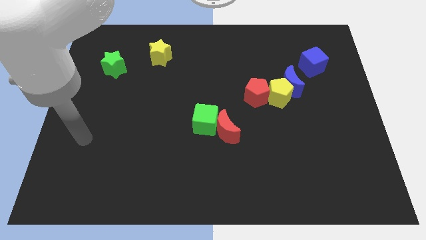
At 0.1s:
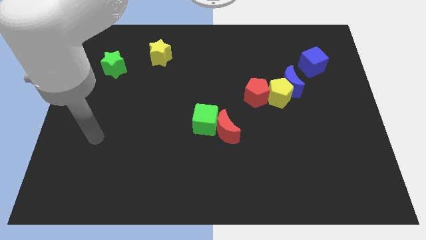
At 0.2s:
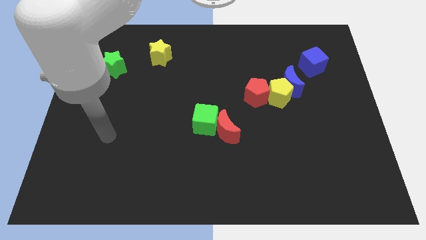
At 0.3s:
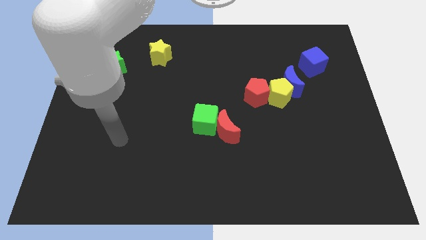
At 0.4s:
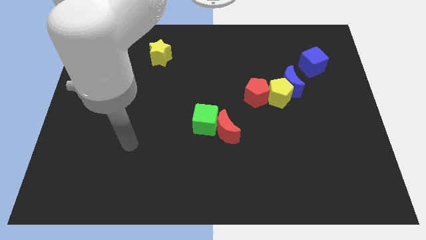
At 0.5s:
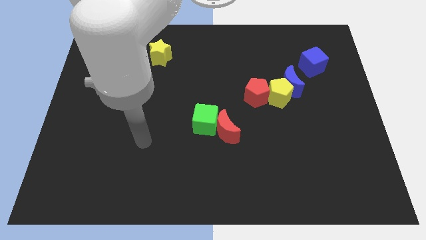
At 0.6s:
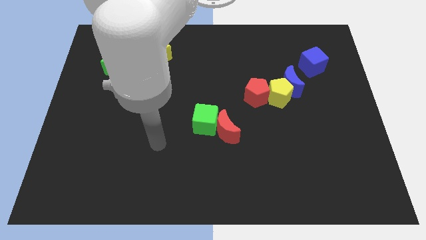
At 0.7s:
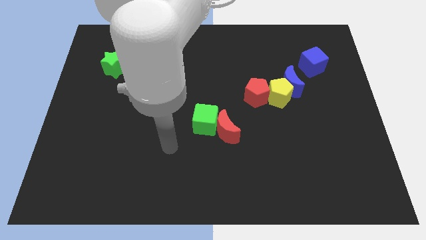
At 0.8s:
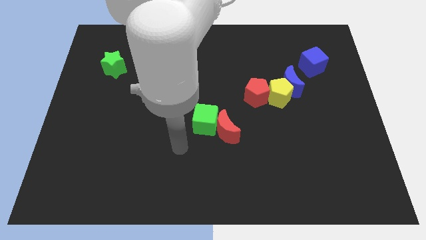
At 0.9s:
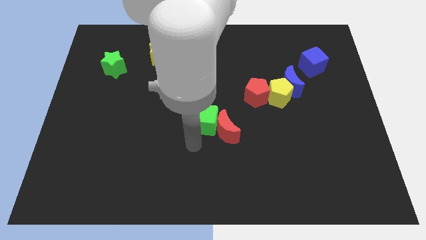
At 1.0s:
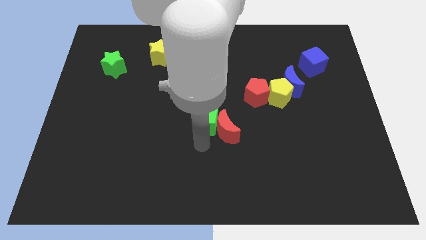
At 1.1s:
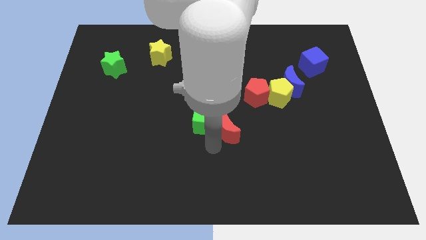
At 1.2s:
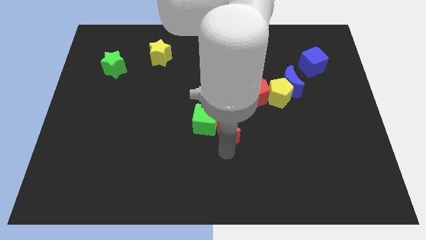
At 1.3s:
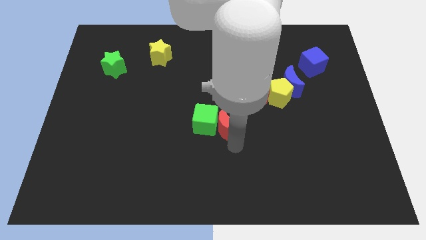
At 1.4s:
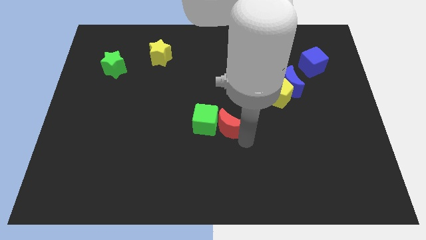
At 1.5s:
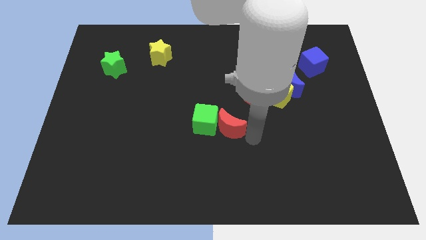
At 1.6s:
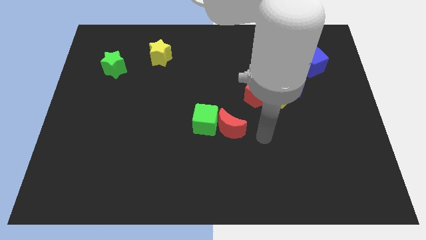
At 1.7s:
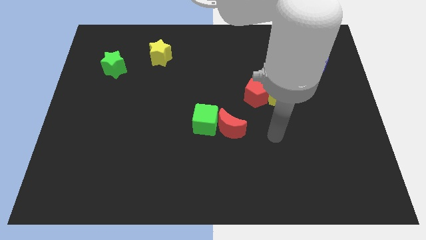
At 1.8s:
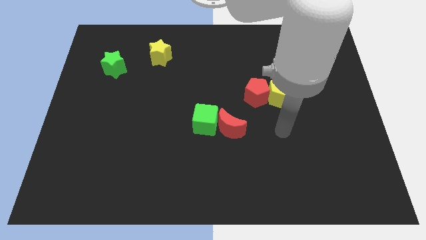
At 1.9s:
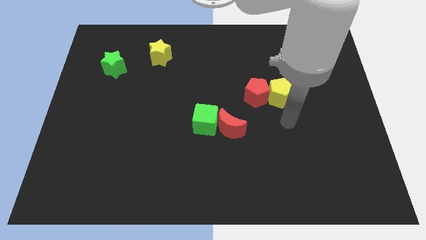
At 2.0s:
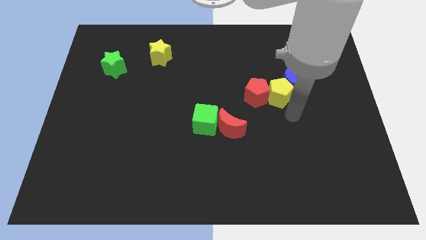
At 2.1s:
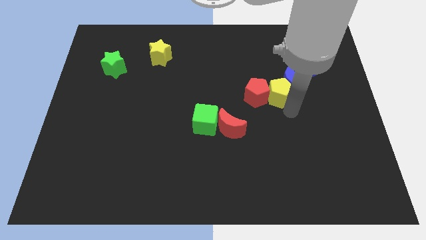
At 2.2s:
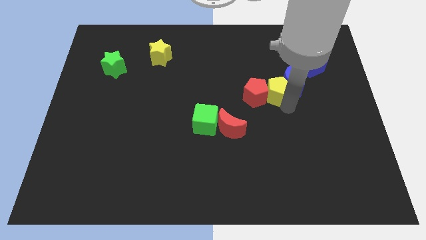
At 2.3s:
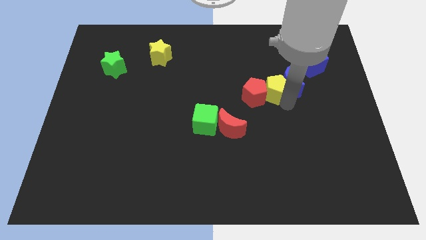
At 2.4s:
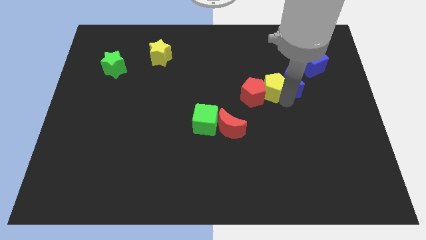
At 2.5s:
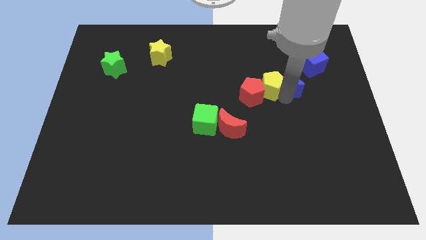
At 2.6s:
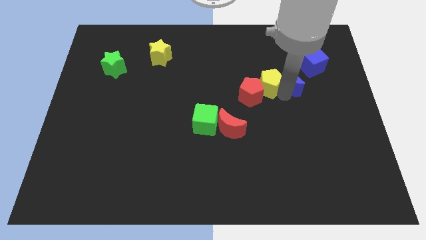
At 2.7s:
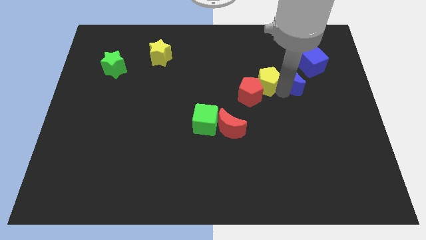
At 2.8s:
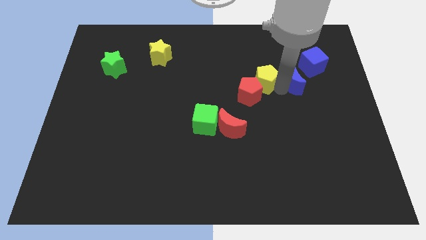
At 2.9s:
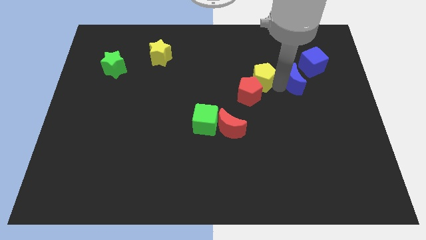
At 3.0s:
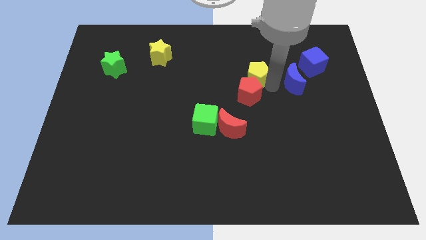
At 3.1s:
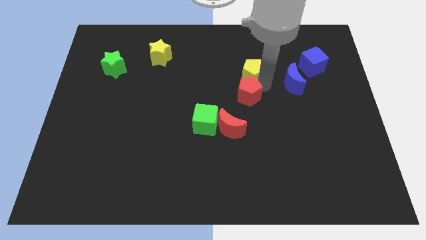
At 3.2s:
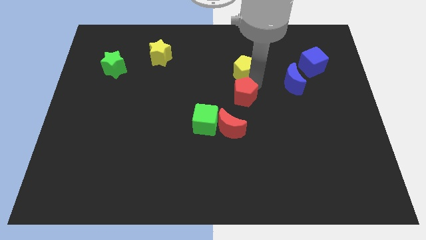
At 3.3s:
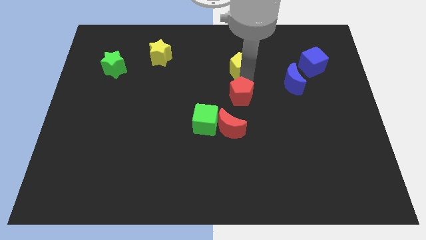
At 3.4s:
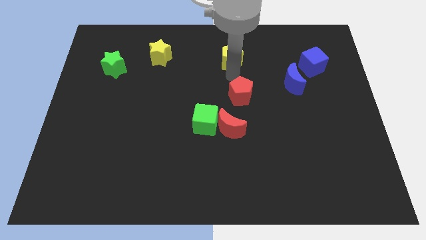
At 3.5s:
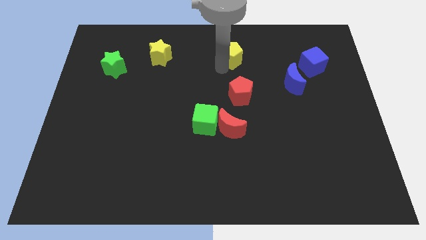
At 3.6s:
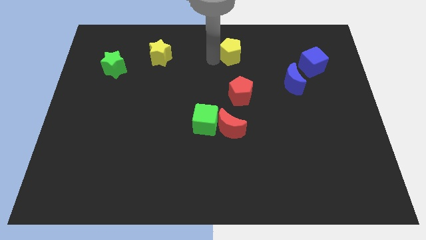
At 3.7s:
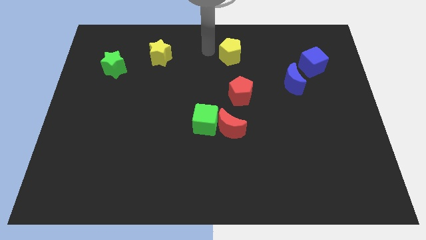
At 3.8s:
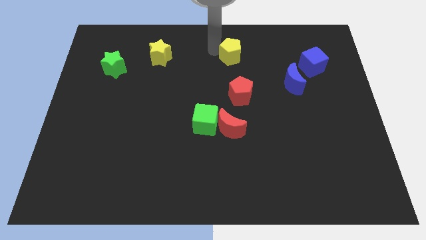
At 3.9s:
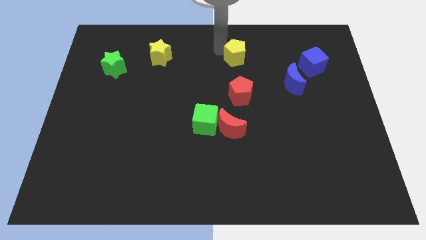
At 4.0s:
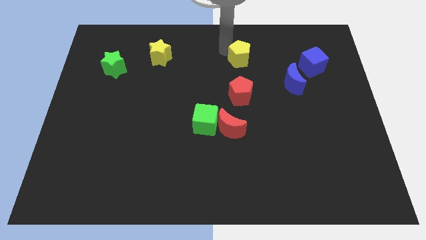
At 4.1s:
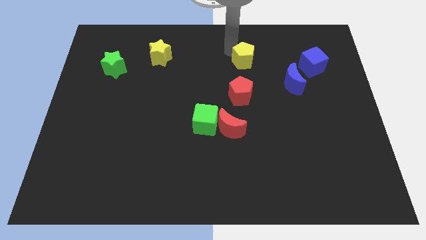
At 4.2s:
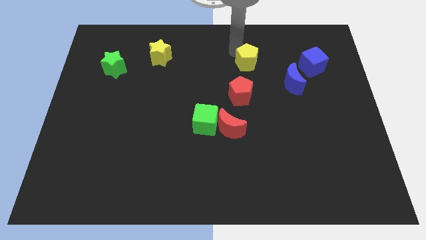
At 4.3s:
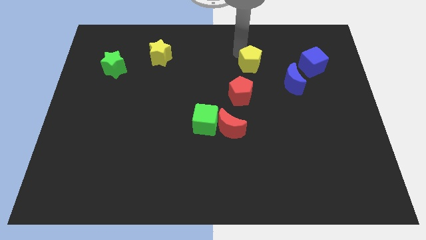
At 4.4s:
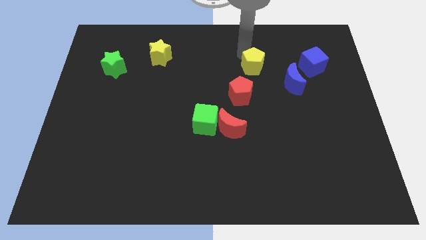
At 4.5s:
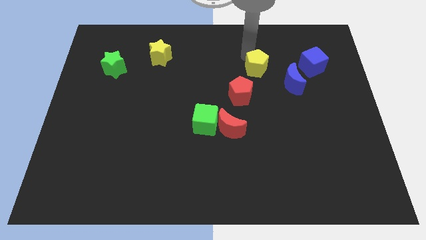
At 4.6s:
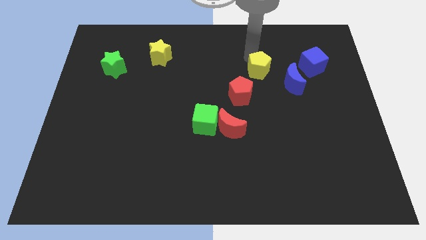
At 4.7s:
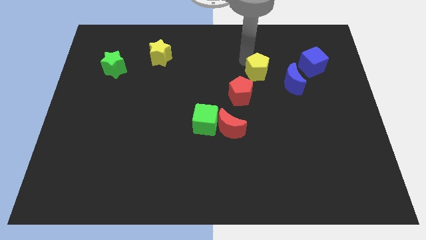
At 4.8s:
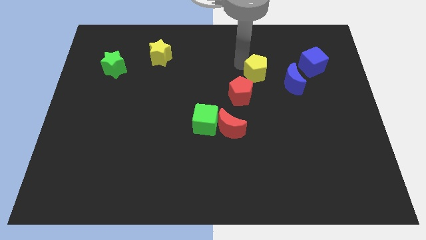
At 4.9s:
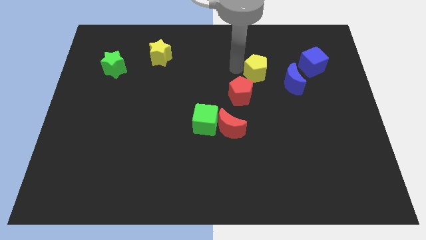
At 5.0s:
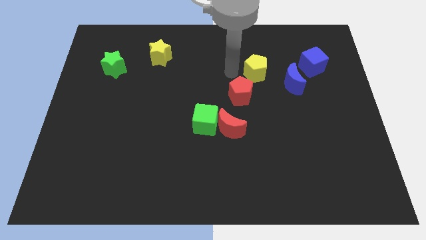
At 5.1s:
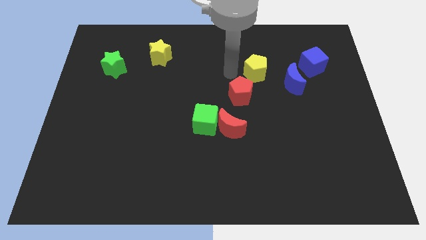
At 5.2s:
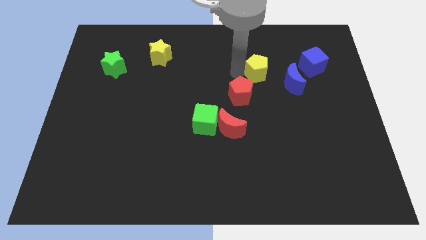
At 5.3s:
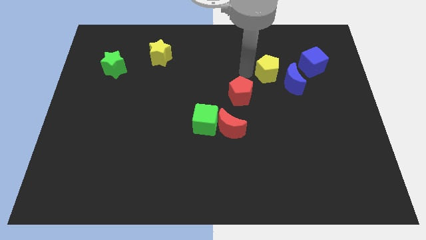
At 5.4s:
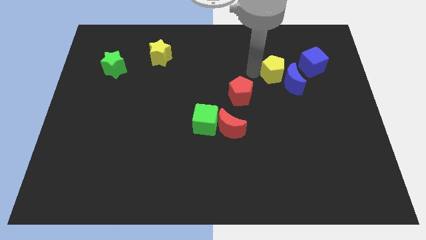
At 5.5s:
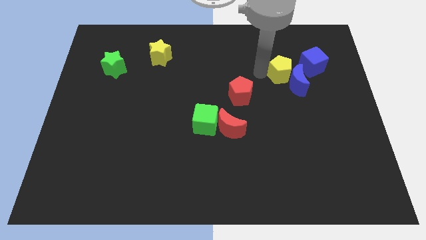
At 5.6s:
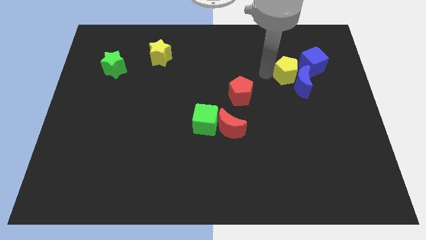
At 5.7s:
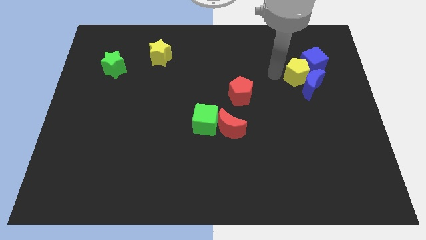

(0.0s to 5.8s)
put the yellow pentagon to the blue cube

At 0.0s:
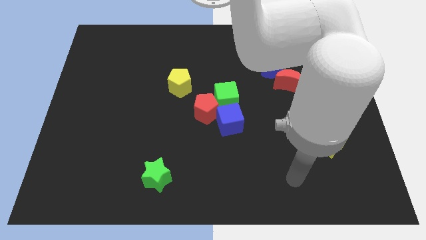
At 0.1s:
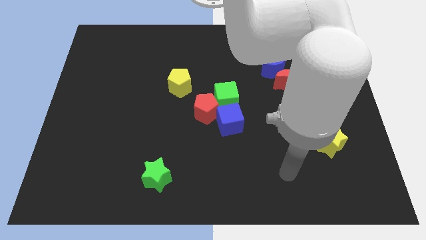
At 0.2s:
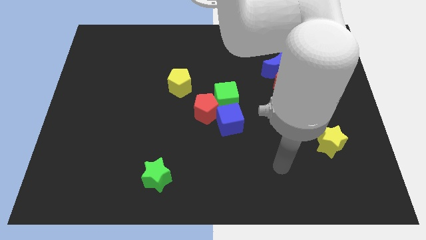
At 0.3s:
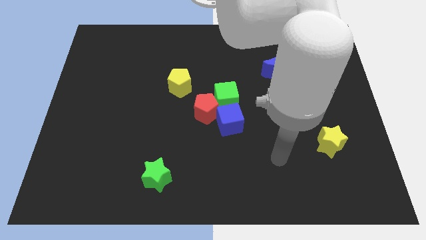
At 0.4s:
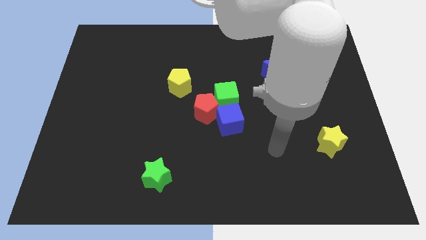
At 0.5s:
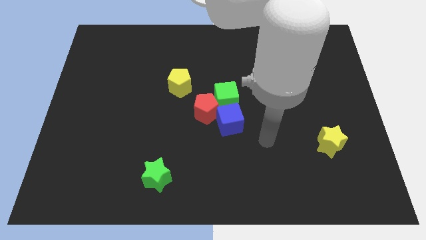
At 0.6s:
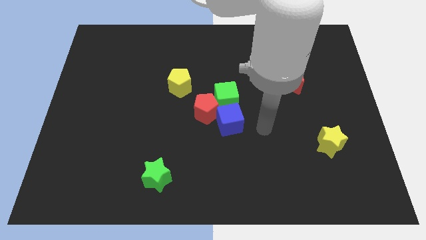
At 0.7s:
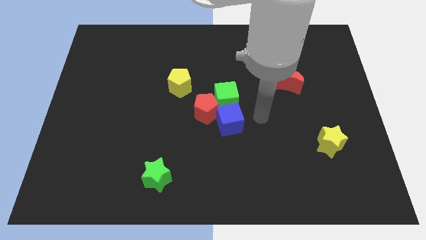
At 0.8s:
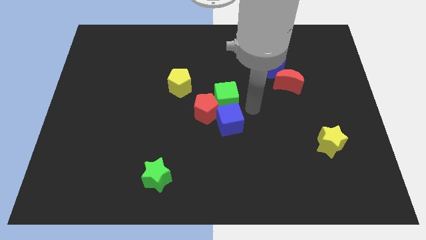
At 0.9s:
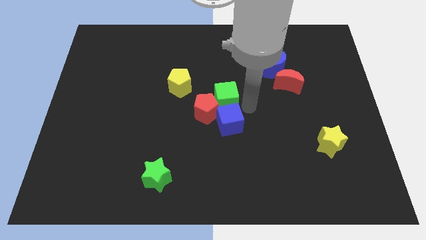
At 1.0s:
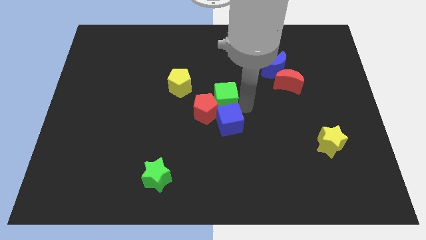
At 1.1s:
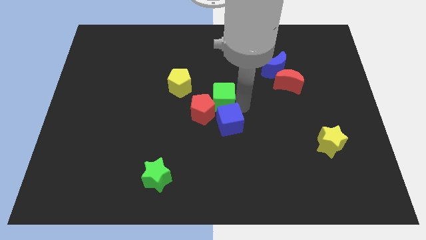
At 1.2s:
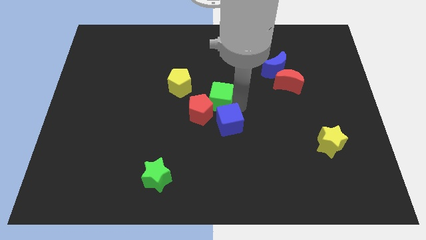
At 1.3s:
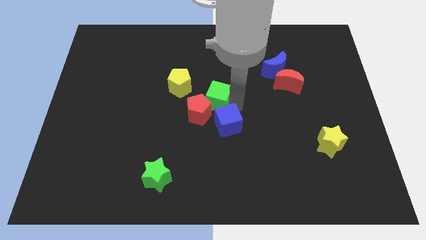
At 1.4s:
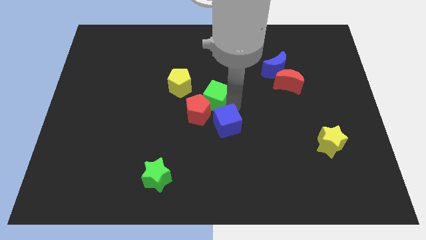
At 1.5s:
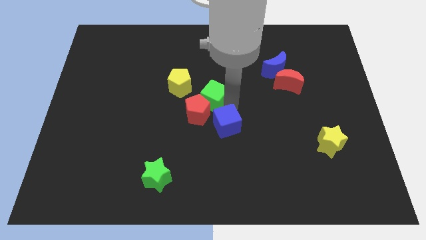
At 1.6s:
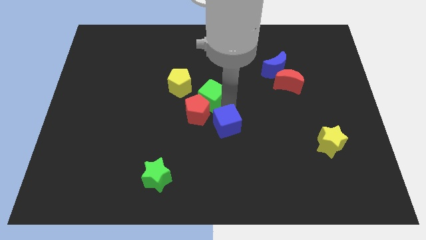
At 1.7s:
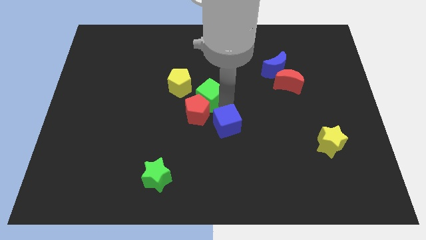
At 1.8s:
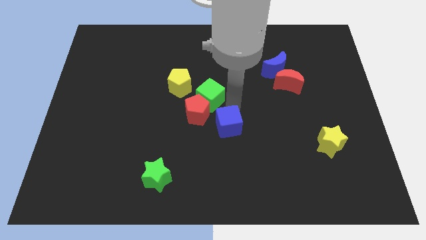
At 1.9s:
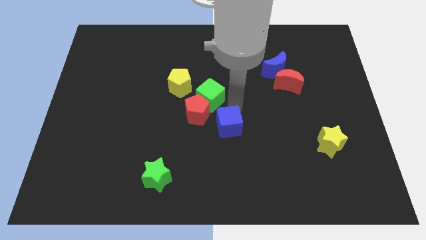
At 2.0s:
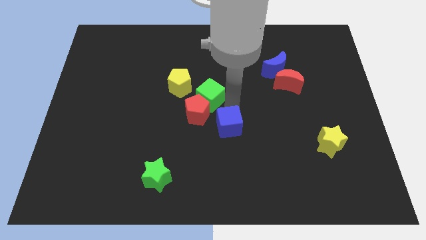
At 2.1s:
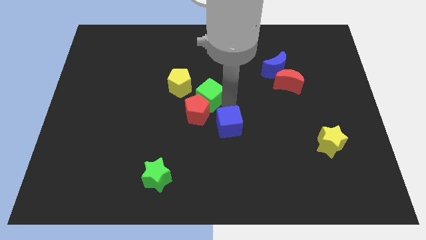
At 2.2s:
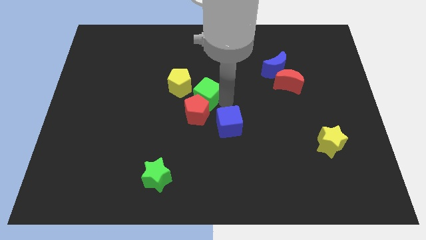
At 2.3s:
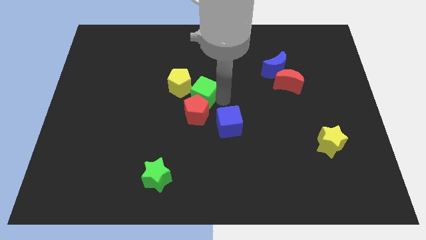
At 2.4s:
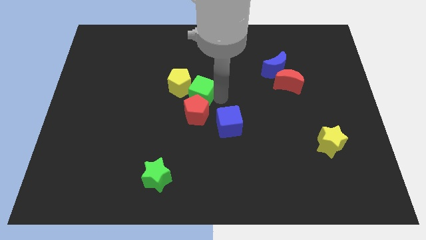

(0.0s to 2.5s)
move the green cube to the yellow pentagon

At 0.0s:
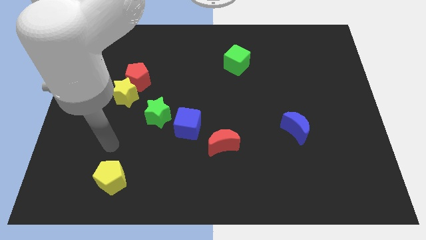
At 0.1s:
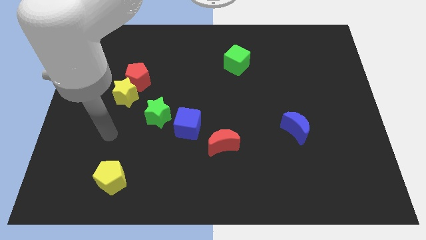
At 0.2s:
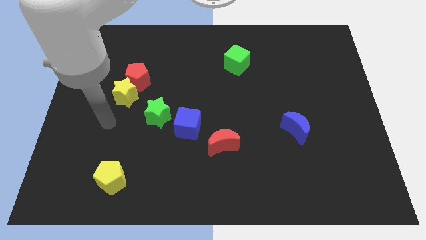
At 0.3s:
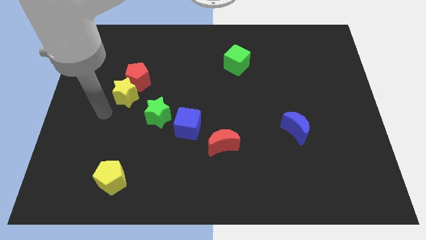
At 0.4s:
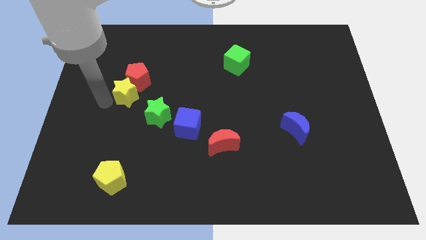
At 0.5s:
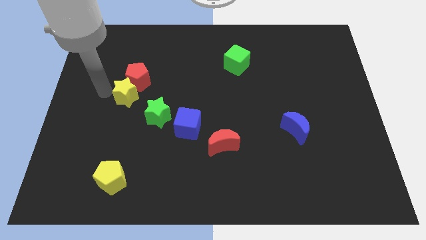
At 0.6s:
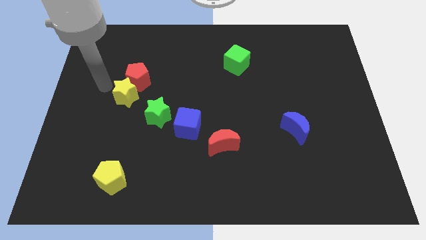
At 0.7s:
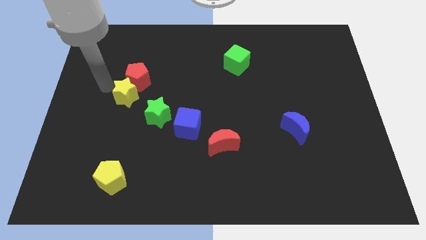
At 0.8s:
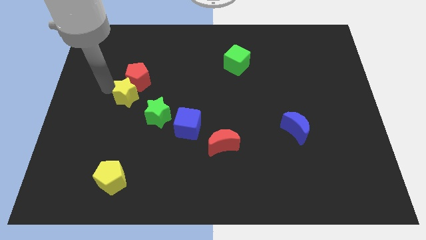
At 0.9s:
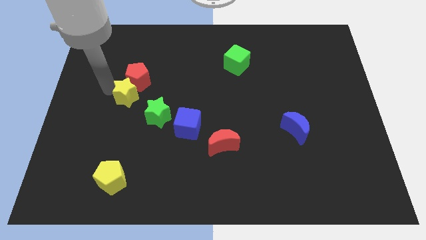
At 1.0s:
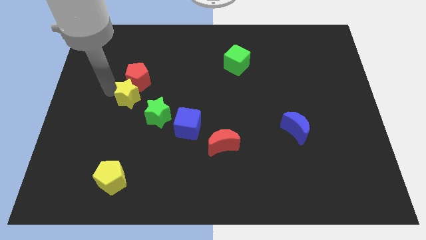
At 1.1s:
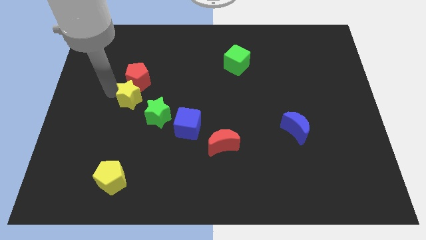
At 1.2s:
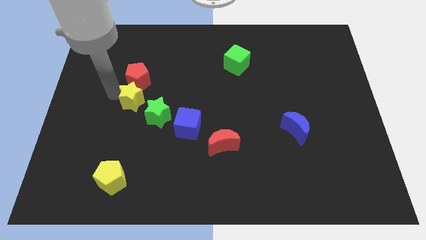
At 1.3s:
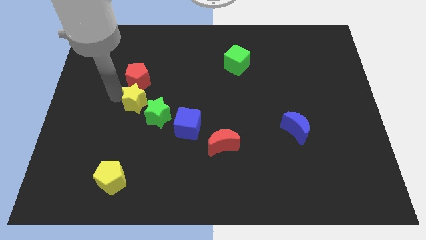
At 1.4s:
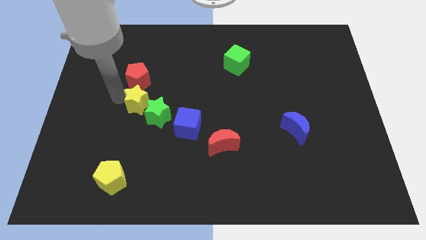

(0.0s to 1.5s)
push the yellow star close to the green star
